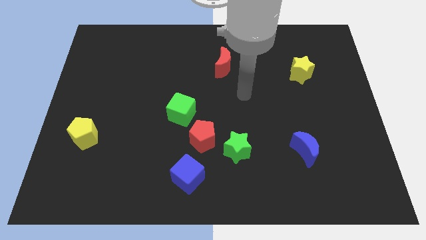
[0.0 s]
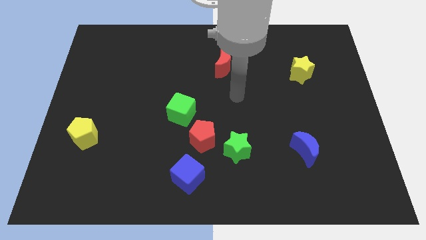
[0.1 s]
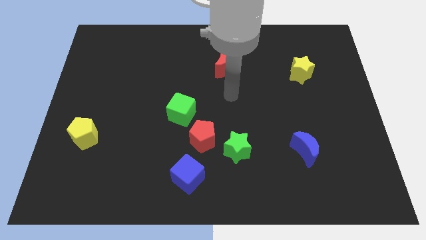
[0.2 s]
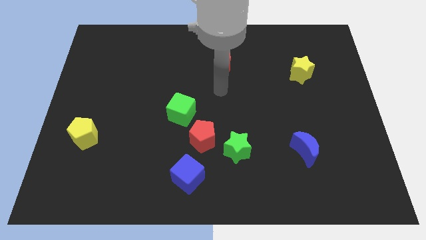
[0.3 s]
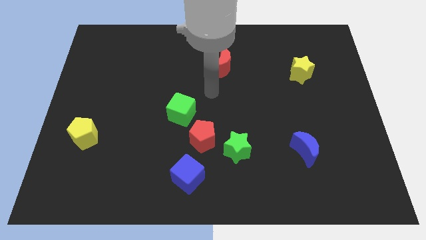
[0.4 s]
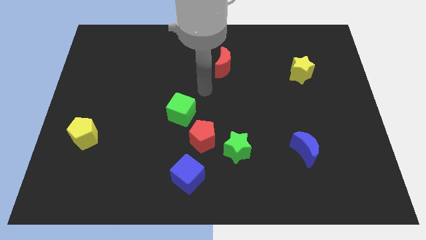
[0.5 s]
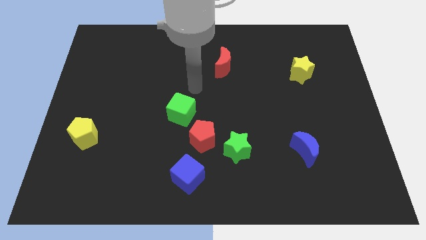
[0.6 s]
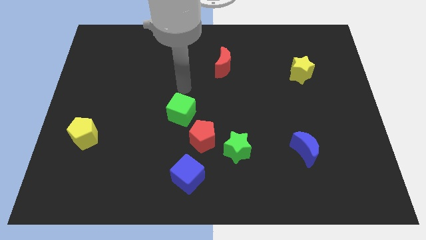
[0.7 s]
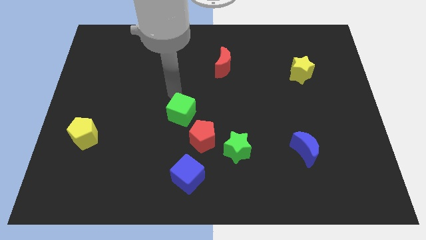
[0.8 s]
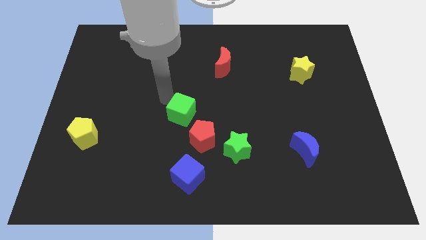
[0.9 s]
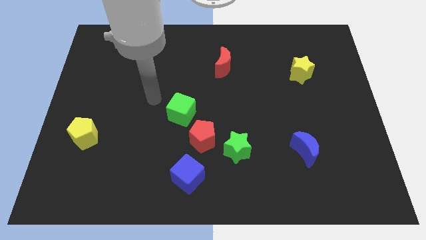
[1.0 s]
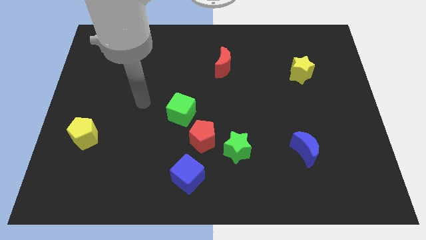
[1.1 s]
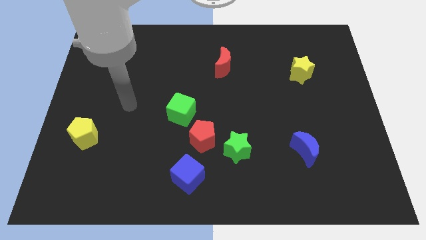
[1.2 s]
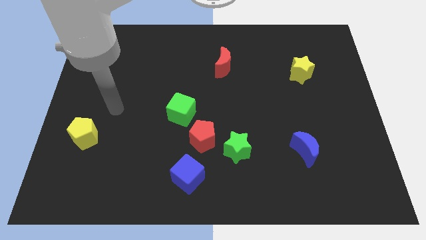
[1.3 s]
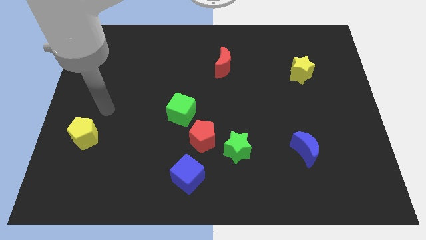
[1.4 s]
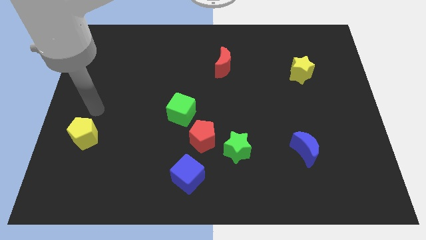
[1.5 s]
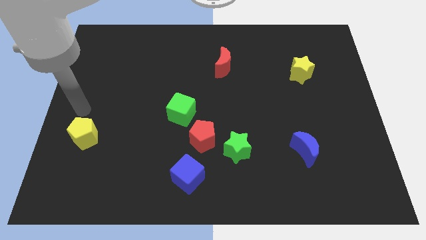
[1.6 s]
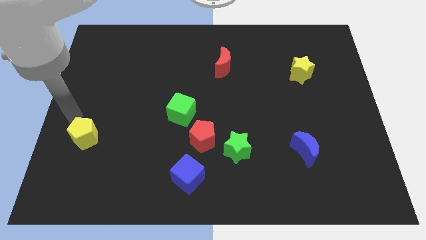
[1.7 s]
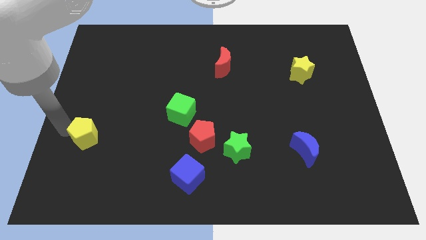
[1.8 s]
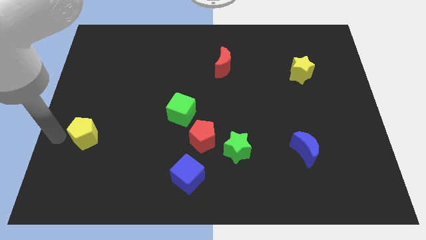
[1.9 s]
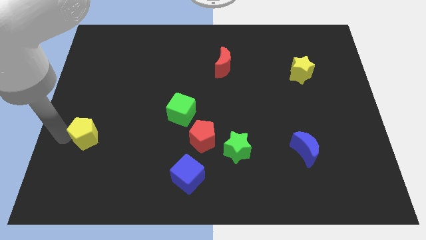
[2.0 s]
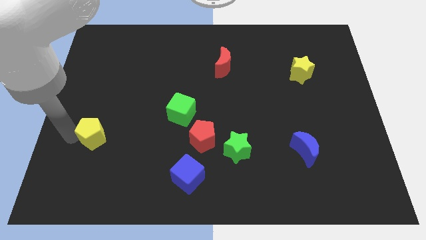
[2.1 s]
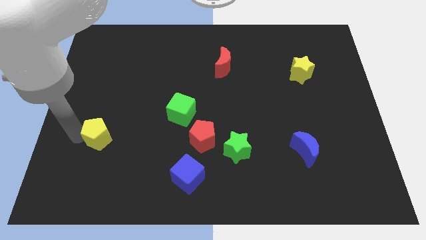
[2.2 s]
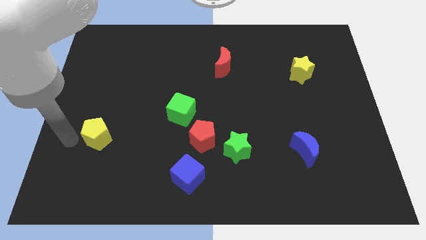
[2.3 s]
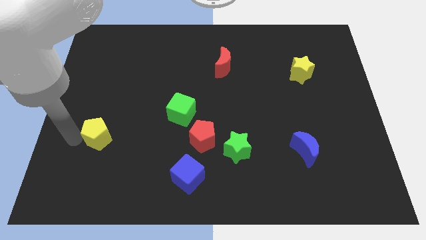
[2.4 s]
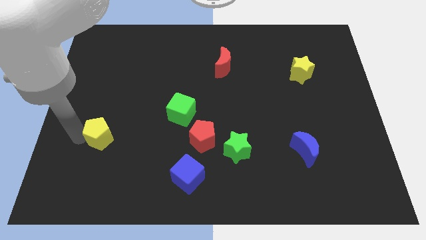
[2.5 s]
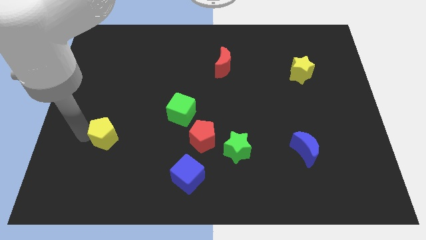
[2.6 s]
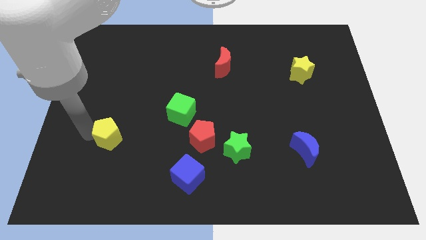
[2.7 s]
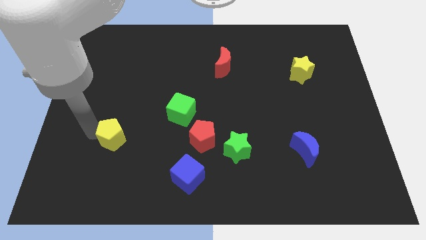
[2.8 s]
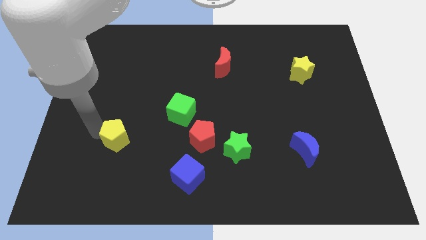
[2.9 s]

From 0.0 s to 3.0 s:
push the yellow pentagon slightly to the right

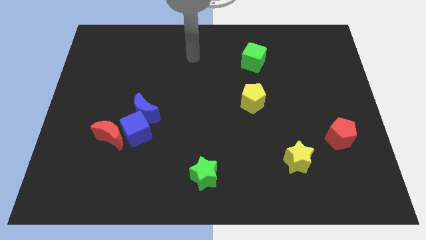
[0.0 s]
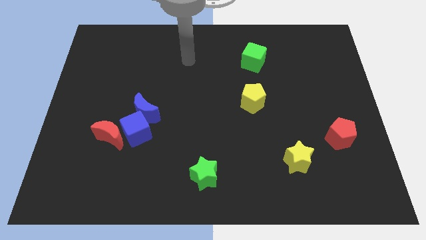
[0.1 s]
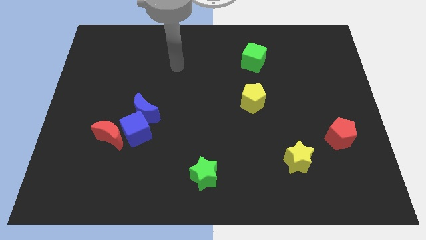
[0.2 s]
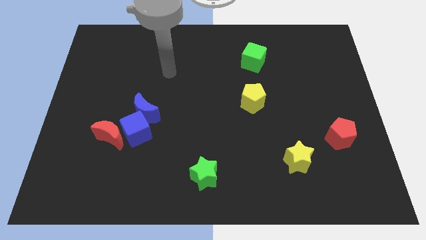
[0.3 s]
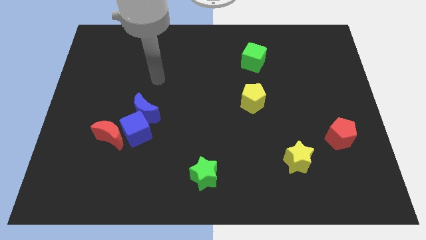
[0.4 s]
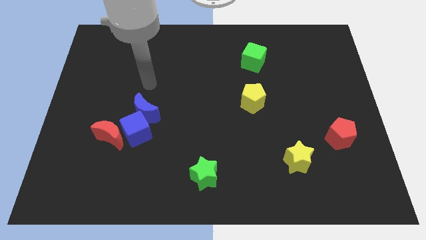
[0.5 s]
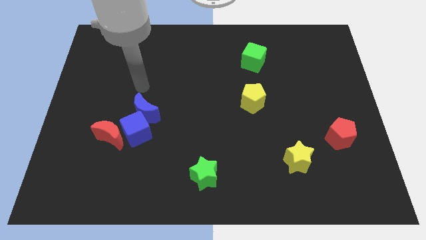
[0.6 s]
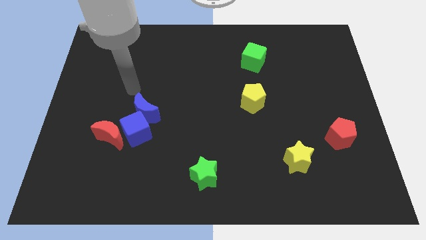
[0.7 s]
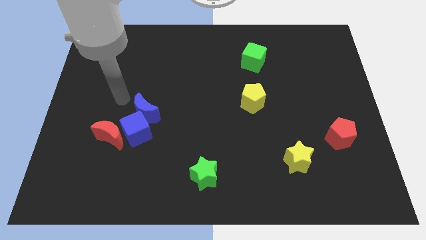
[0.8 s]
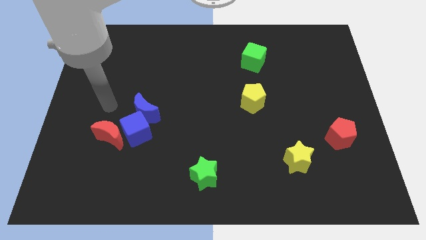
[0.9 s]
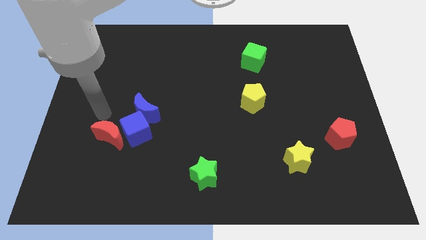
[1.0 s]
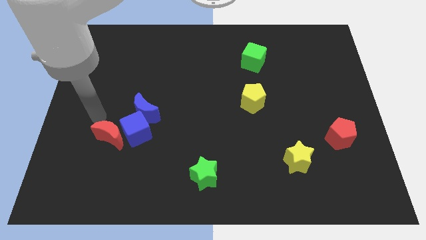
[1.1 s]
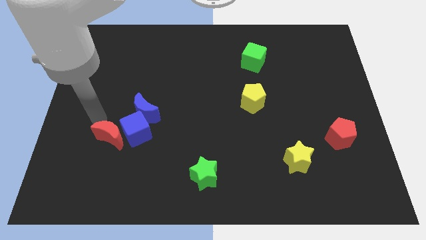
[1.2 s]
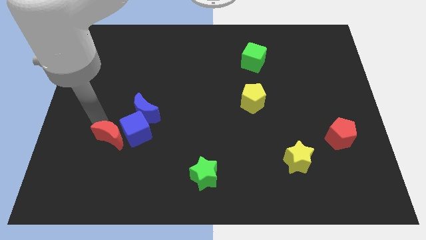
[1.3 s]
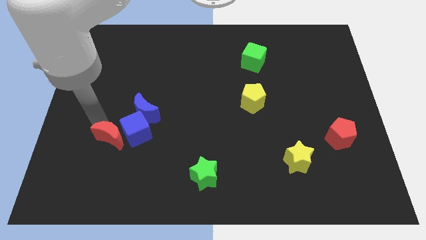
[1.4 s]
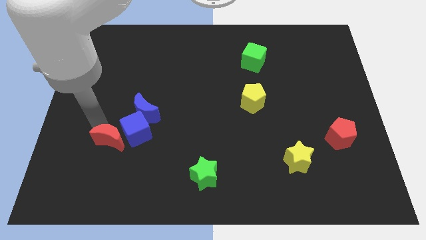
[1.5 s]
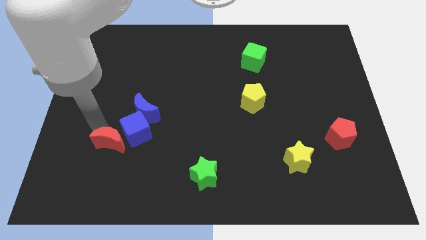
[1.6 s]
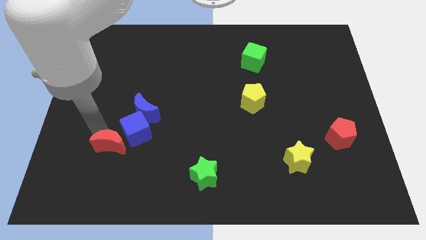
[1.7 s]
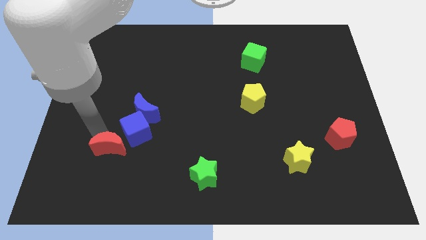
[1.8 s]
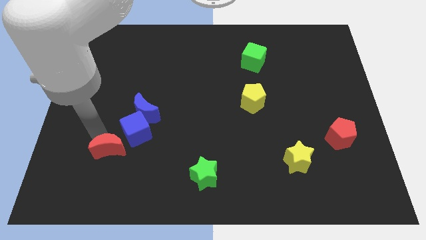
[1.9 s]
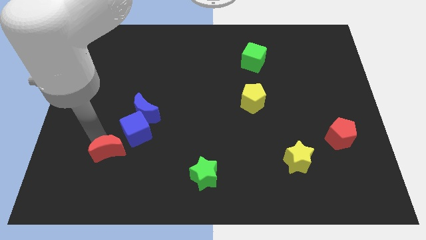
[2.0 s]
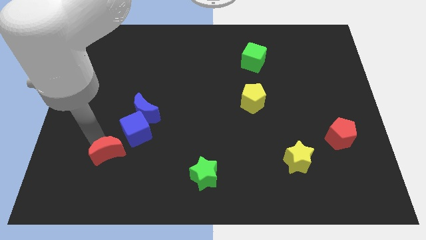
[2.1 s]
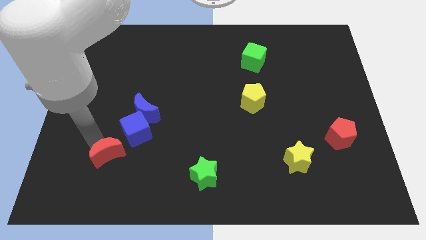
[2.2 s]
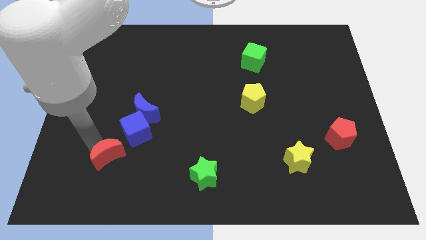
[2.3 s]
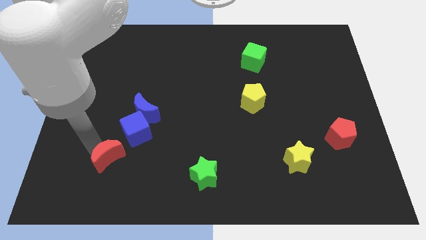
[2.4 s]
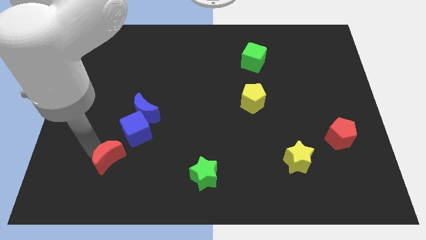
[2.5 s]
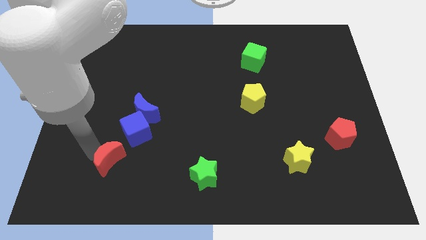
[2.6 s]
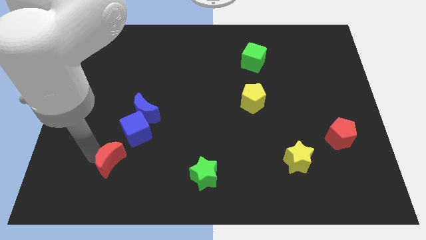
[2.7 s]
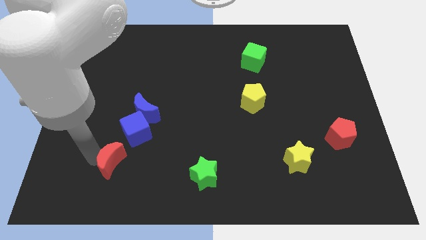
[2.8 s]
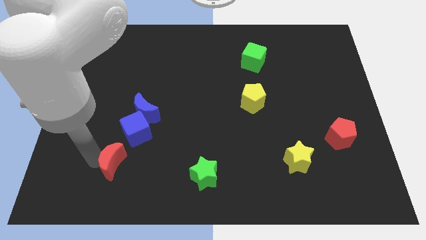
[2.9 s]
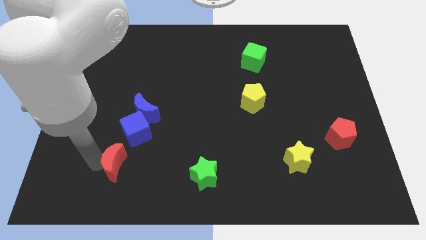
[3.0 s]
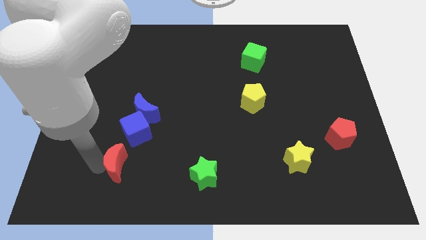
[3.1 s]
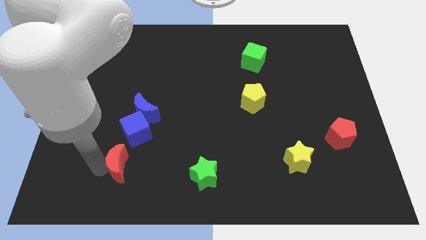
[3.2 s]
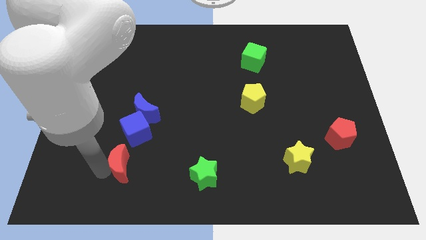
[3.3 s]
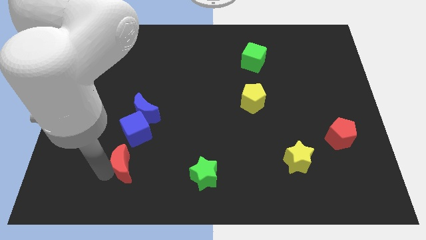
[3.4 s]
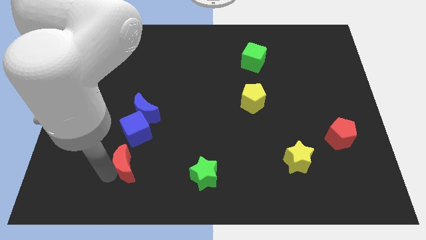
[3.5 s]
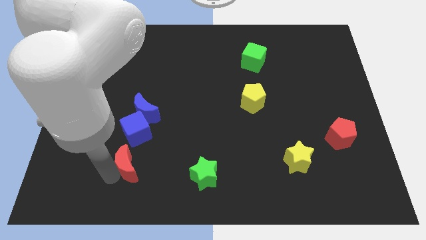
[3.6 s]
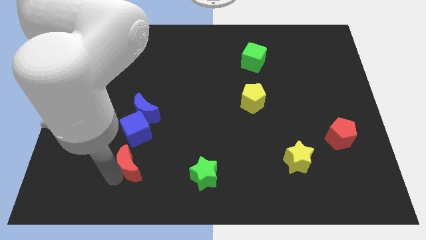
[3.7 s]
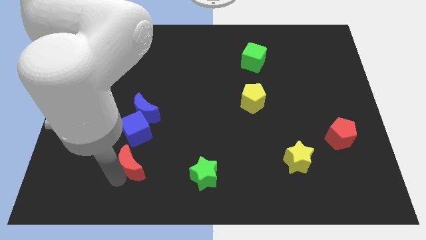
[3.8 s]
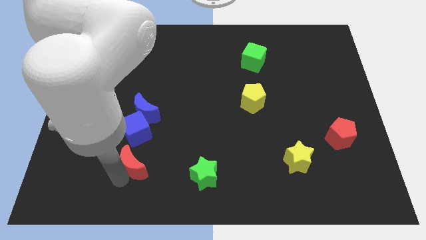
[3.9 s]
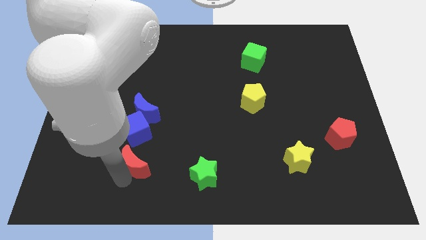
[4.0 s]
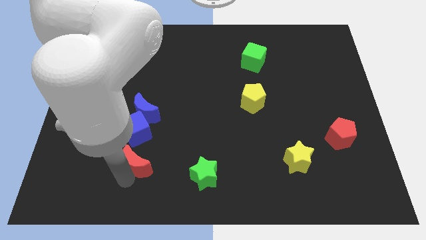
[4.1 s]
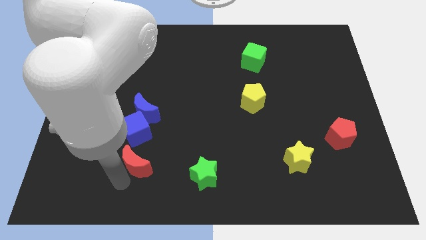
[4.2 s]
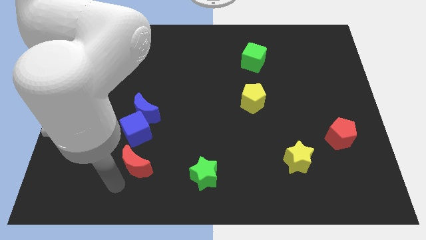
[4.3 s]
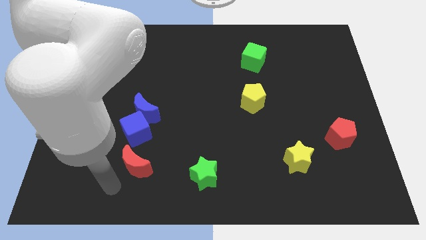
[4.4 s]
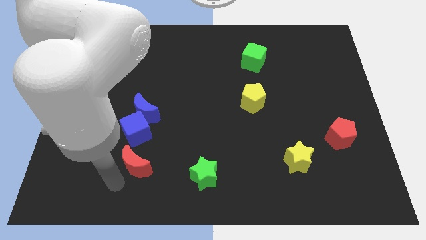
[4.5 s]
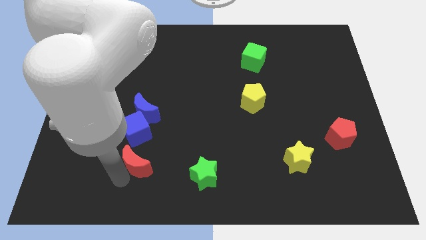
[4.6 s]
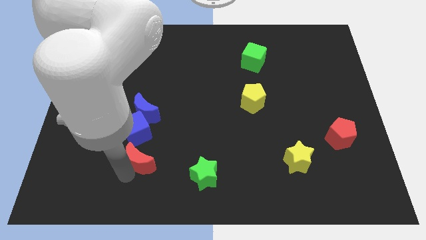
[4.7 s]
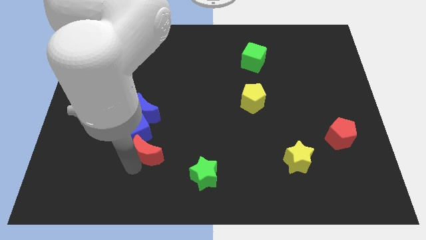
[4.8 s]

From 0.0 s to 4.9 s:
slightly push the red moon right

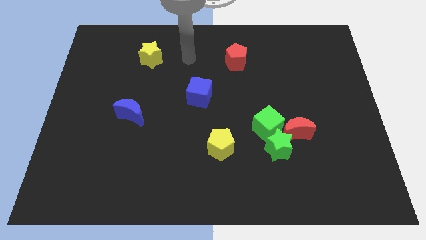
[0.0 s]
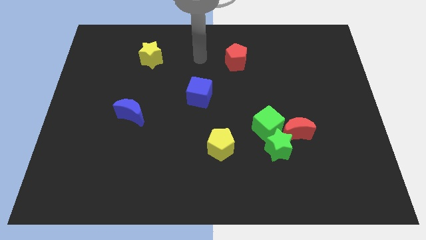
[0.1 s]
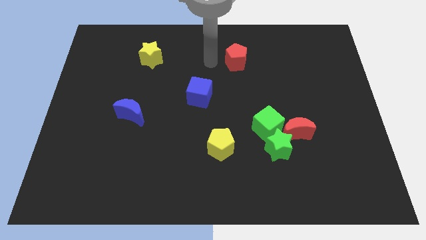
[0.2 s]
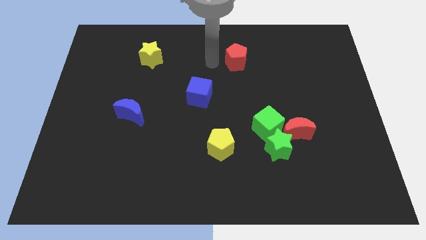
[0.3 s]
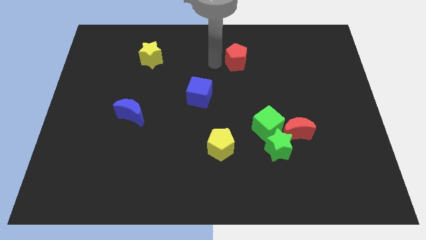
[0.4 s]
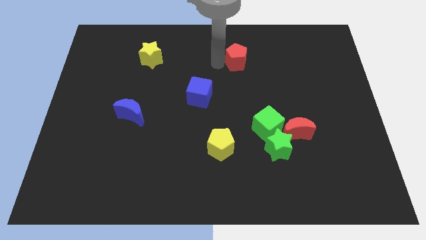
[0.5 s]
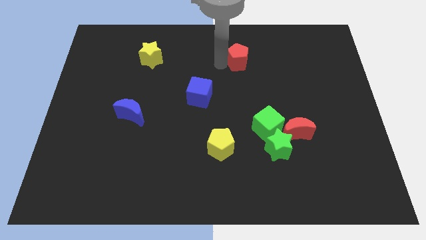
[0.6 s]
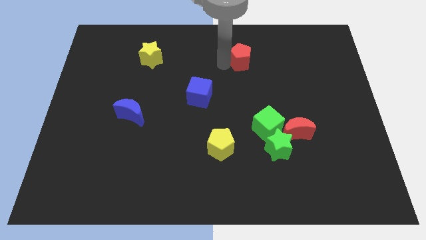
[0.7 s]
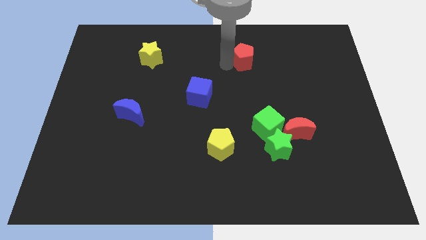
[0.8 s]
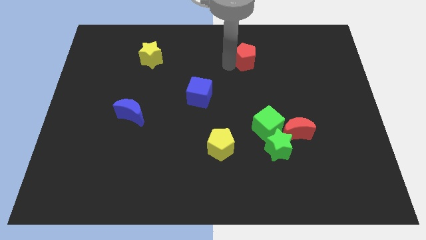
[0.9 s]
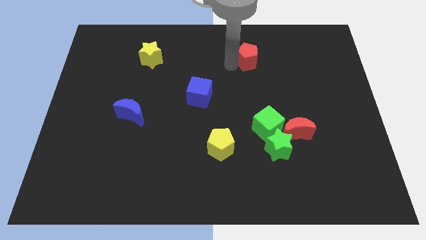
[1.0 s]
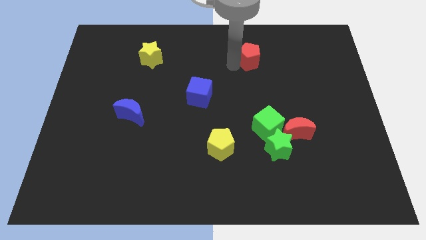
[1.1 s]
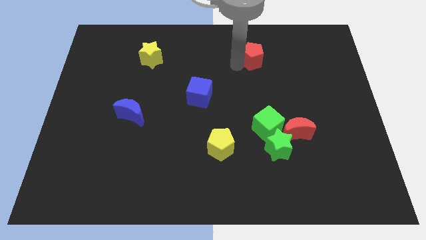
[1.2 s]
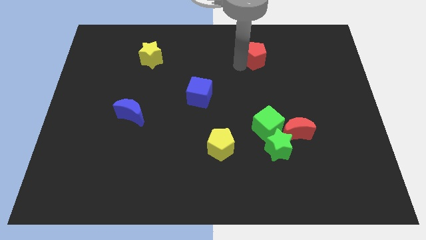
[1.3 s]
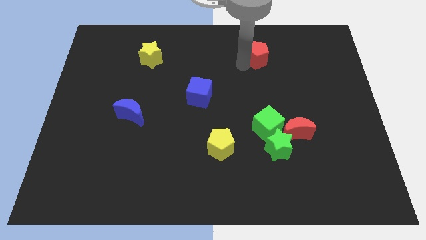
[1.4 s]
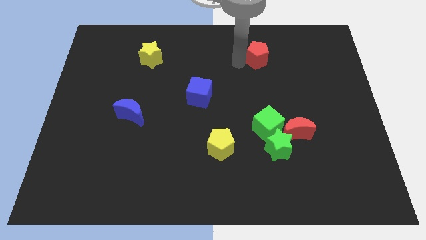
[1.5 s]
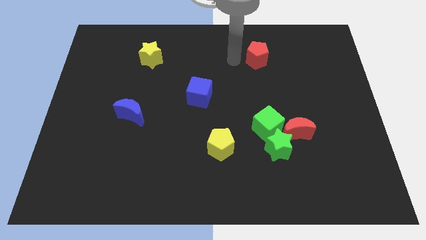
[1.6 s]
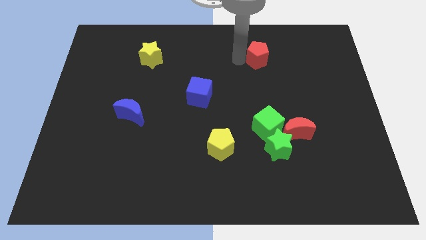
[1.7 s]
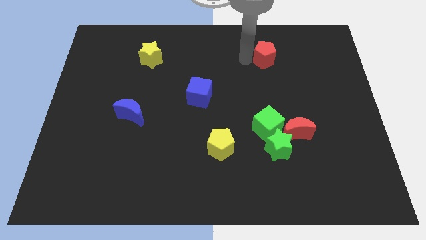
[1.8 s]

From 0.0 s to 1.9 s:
slide the red pentagon a little to the right
